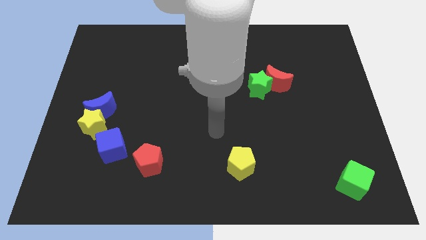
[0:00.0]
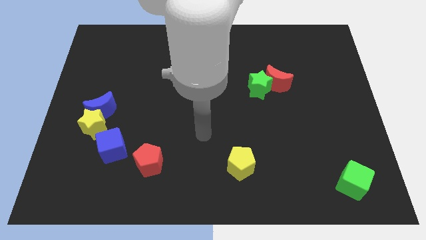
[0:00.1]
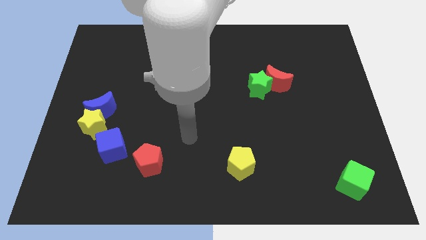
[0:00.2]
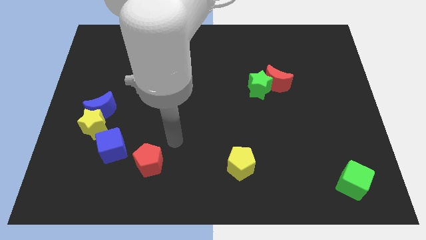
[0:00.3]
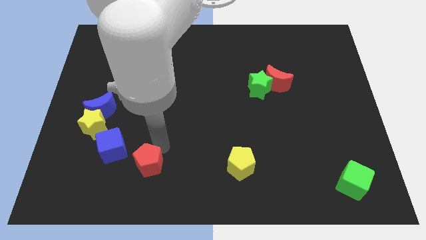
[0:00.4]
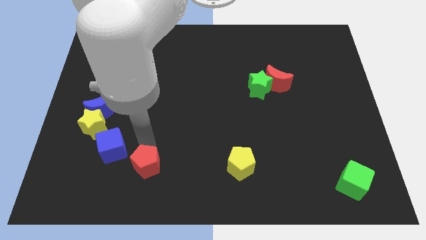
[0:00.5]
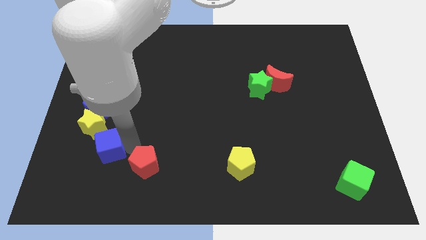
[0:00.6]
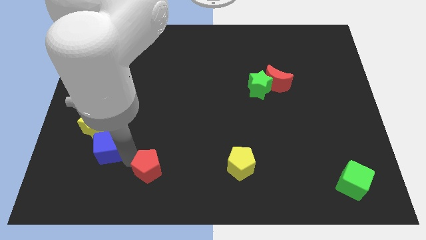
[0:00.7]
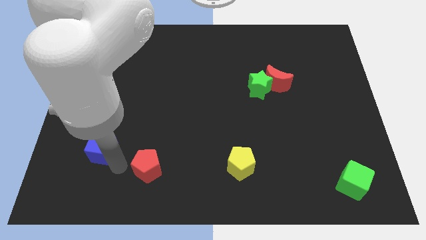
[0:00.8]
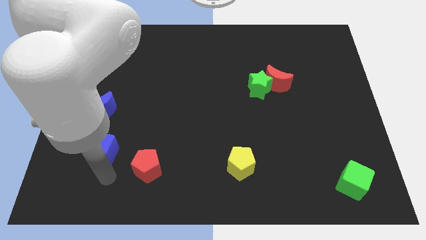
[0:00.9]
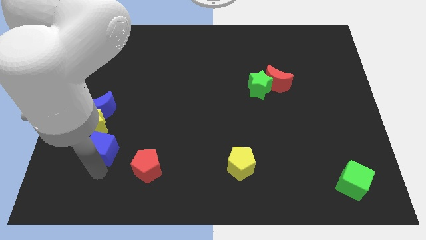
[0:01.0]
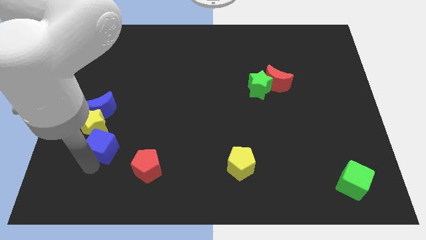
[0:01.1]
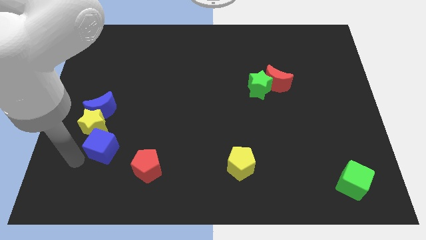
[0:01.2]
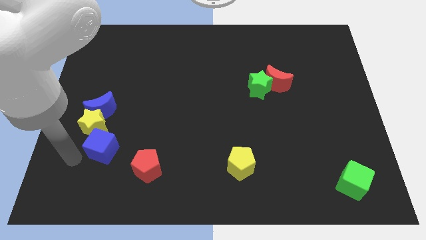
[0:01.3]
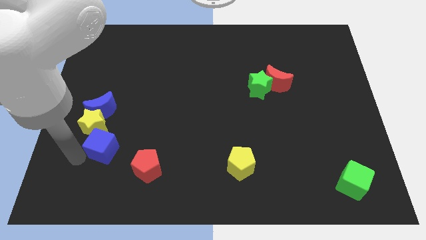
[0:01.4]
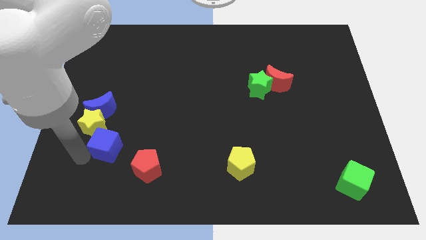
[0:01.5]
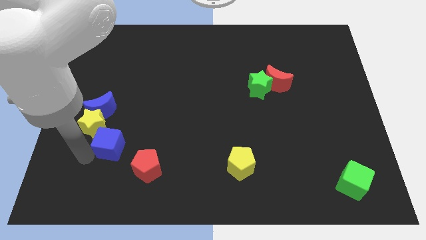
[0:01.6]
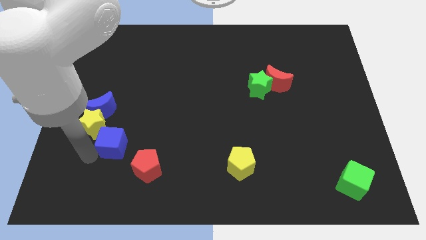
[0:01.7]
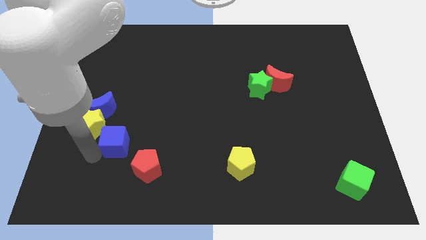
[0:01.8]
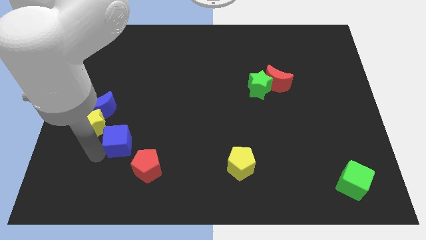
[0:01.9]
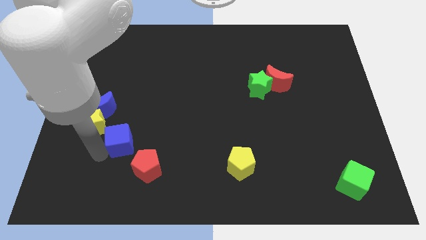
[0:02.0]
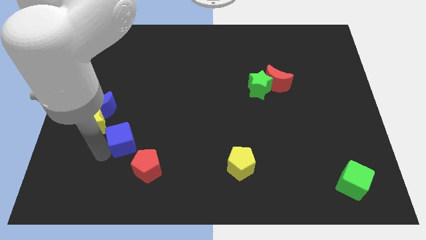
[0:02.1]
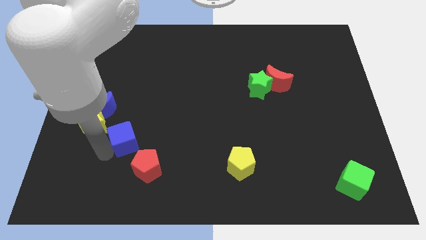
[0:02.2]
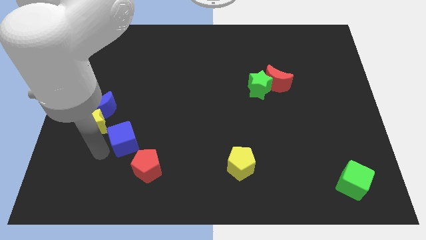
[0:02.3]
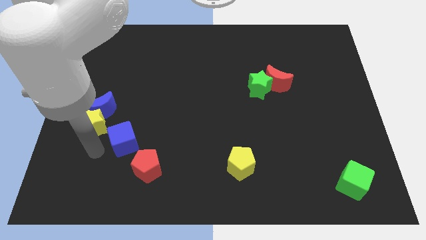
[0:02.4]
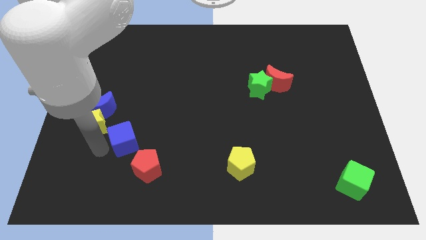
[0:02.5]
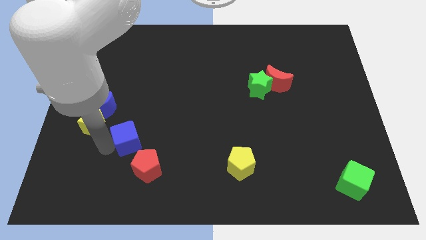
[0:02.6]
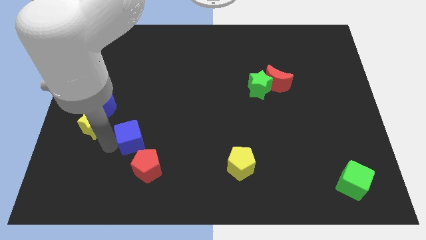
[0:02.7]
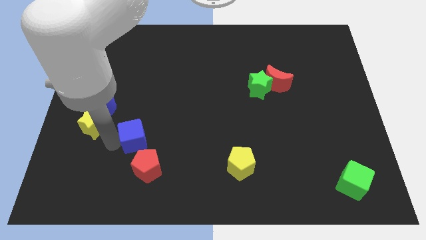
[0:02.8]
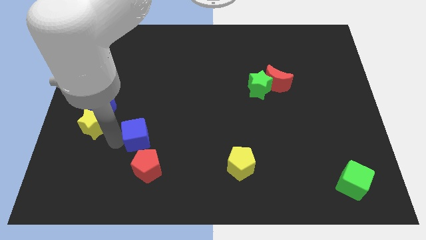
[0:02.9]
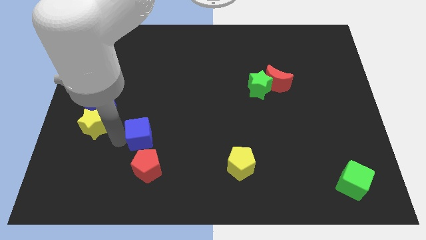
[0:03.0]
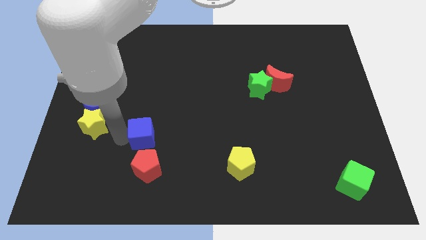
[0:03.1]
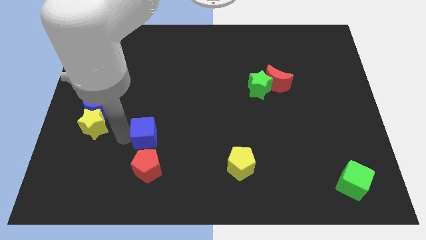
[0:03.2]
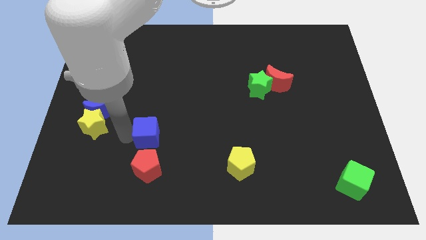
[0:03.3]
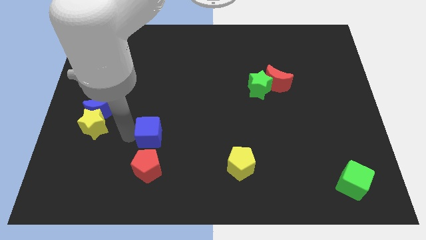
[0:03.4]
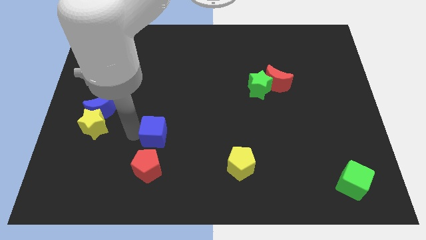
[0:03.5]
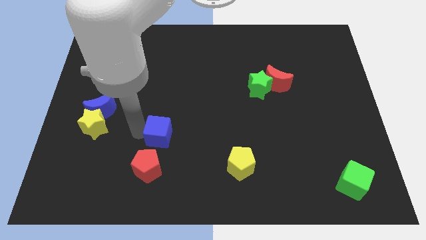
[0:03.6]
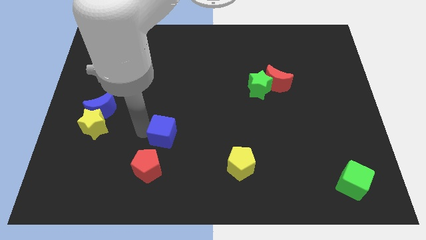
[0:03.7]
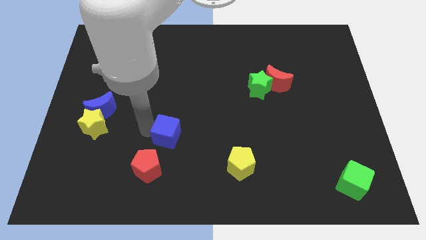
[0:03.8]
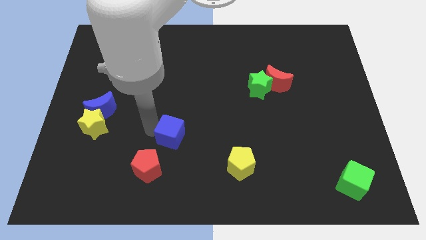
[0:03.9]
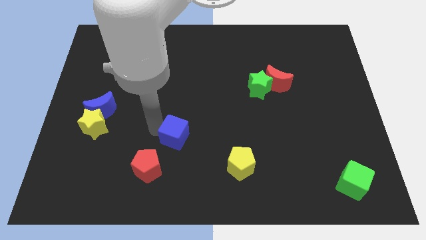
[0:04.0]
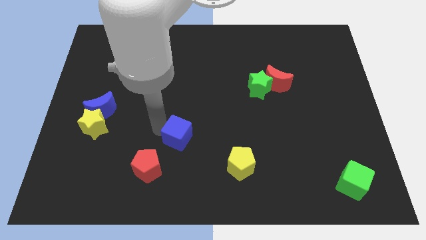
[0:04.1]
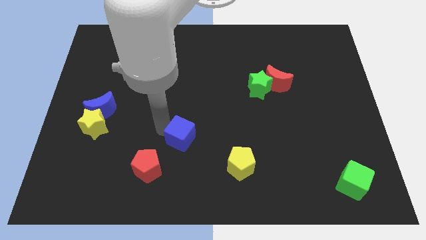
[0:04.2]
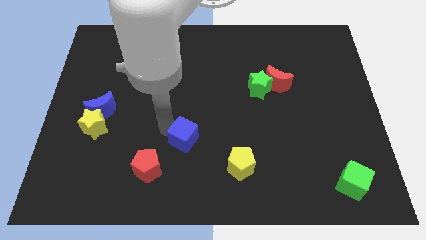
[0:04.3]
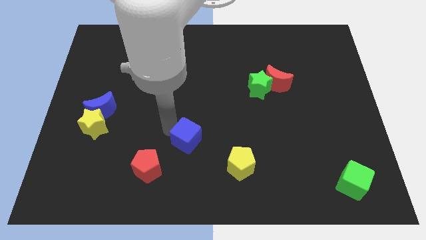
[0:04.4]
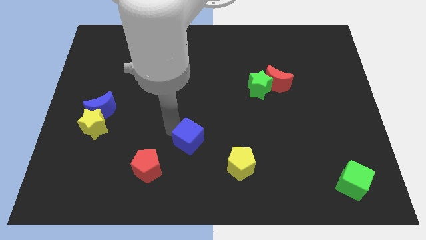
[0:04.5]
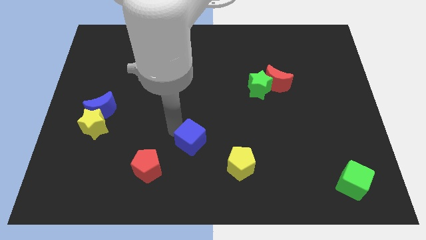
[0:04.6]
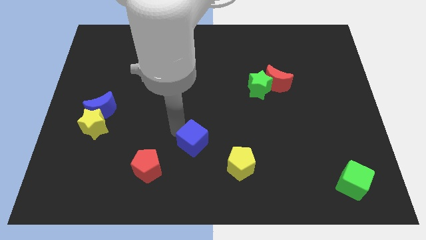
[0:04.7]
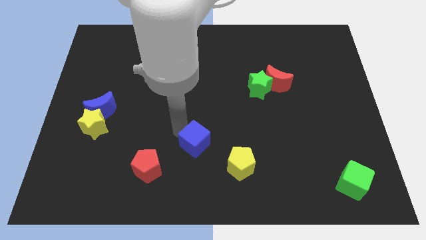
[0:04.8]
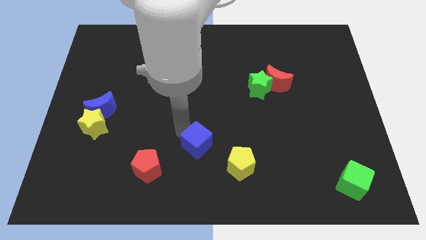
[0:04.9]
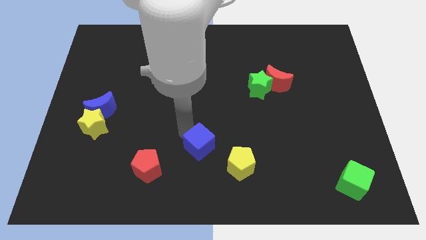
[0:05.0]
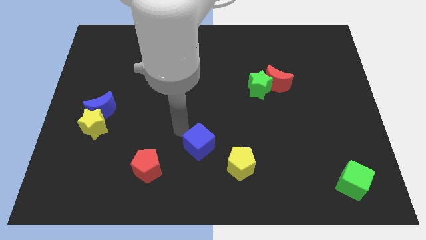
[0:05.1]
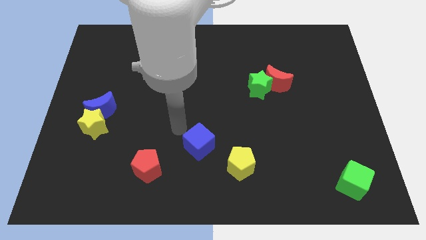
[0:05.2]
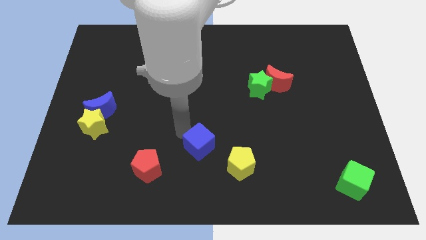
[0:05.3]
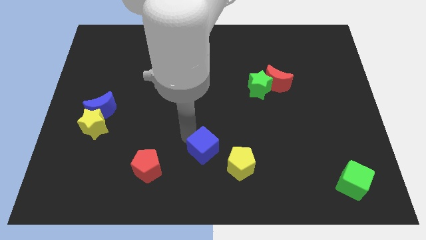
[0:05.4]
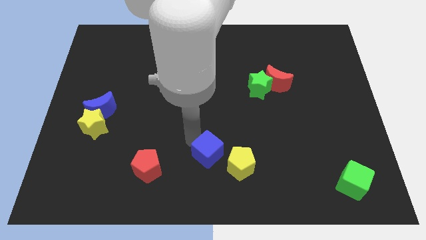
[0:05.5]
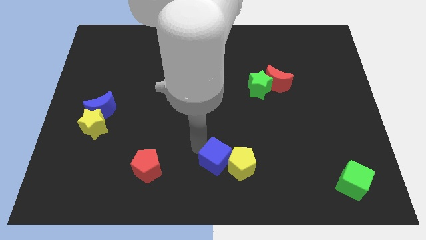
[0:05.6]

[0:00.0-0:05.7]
slide the blue cube next to the yellow pentagon
